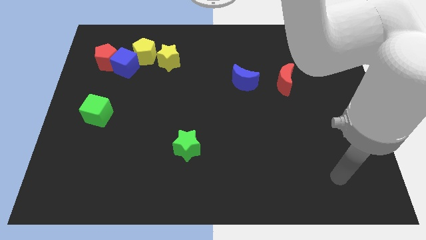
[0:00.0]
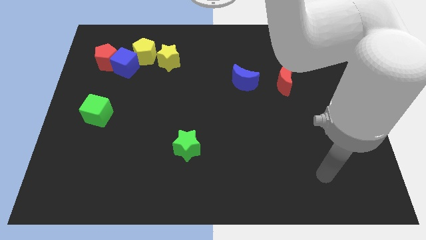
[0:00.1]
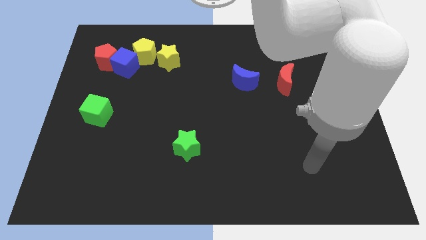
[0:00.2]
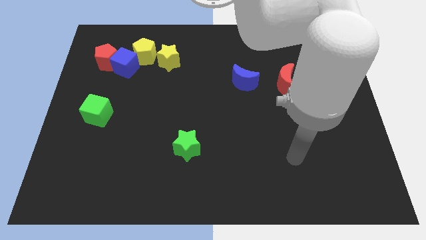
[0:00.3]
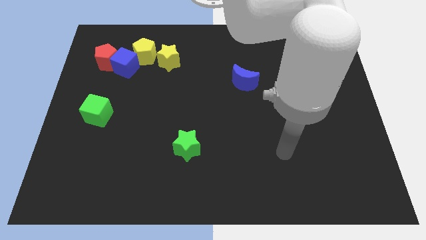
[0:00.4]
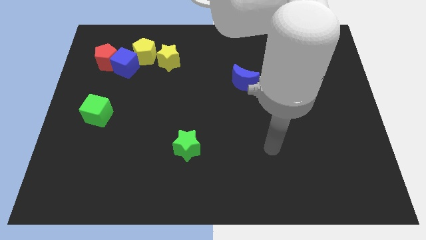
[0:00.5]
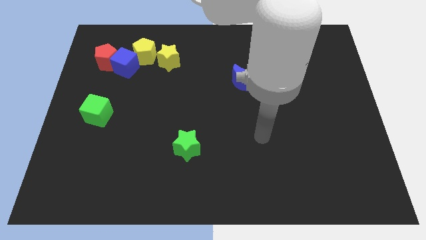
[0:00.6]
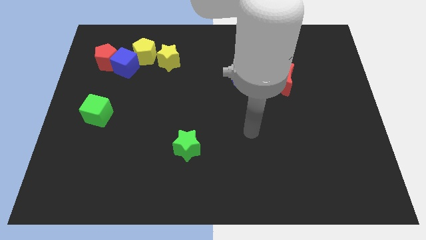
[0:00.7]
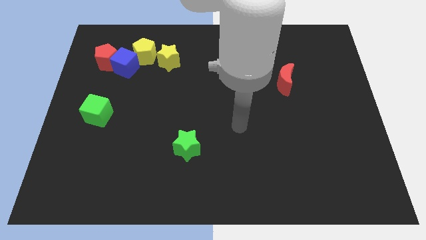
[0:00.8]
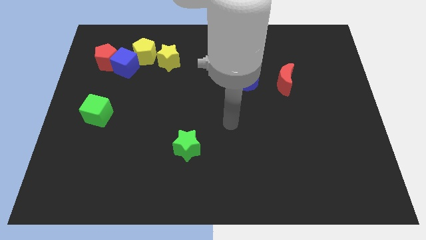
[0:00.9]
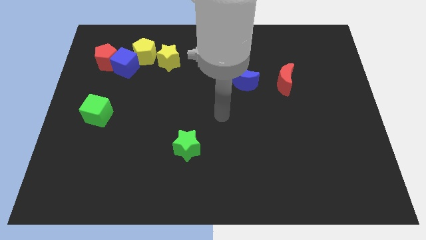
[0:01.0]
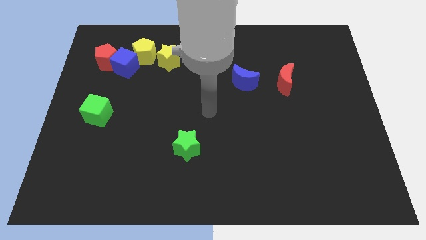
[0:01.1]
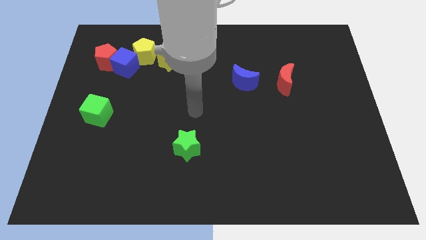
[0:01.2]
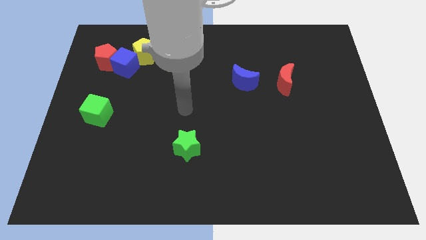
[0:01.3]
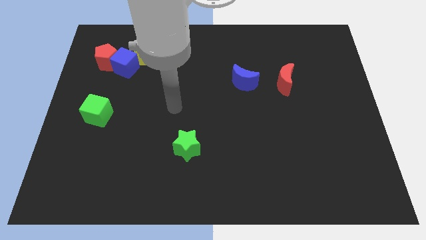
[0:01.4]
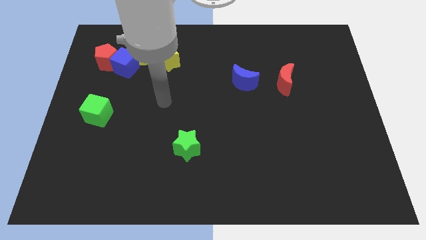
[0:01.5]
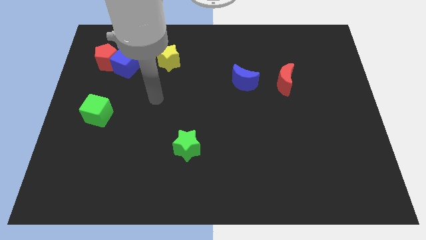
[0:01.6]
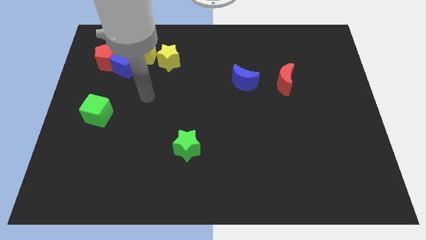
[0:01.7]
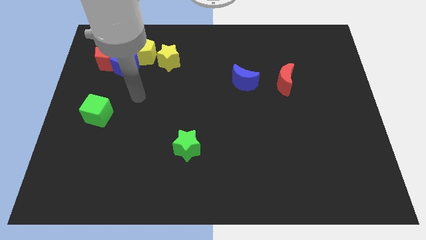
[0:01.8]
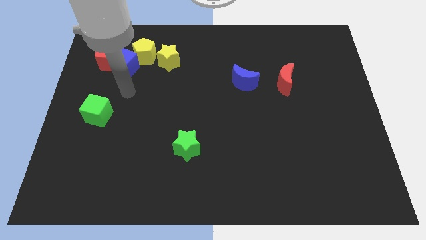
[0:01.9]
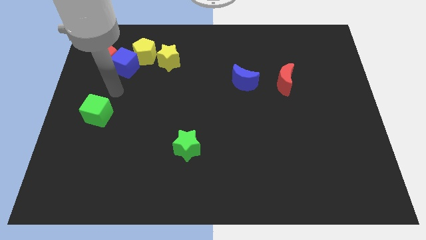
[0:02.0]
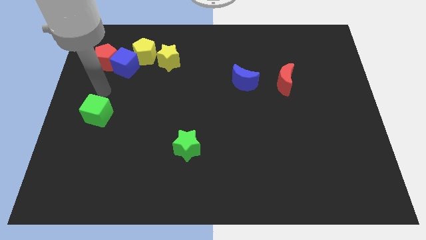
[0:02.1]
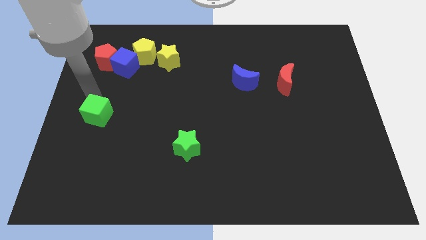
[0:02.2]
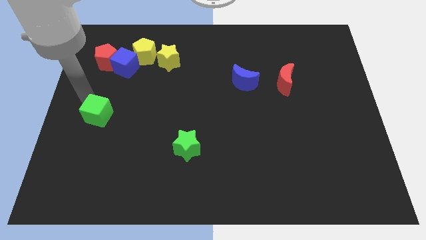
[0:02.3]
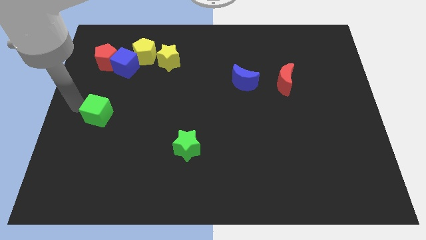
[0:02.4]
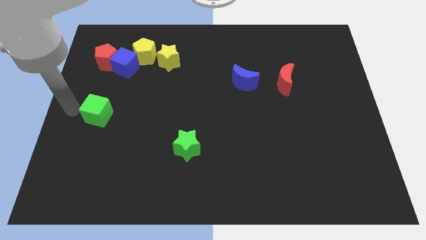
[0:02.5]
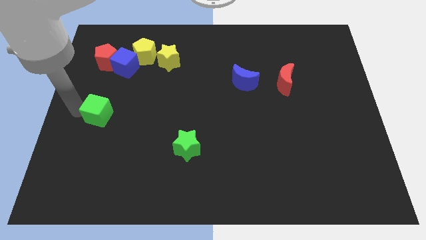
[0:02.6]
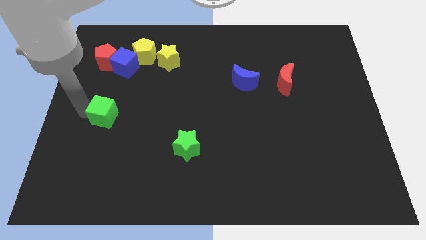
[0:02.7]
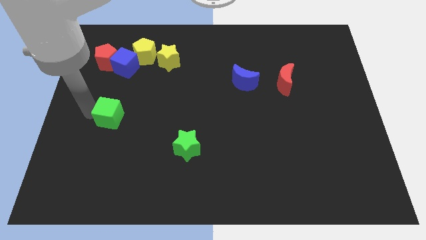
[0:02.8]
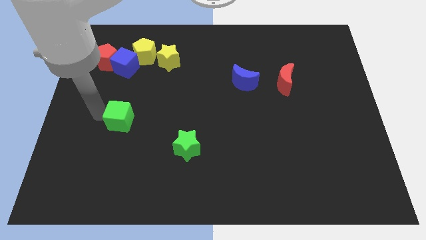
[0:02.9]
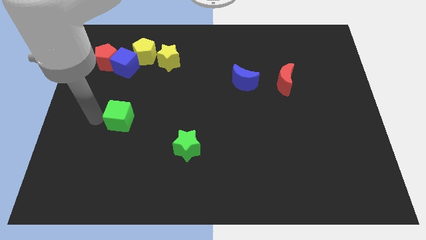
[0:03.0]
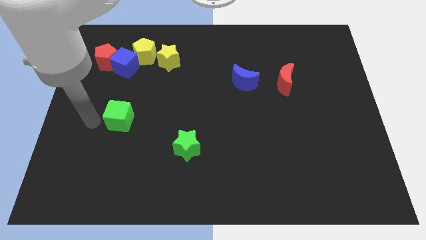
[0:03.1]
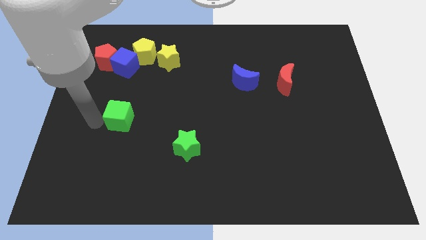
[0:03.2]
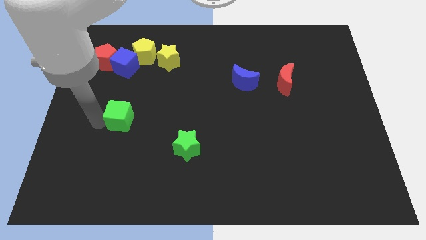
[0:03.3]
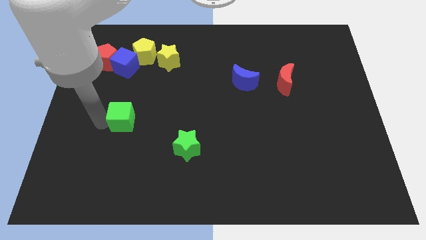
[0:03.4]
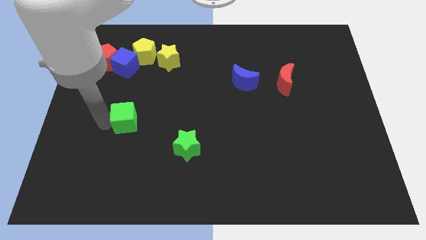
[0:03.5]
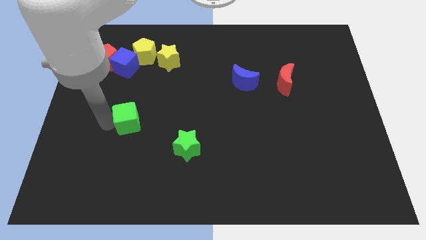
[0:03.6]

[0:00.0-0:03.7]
slide the green cube a little bit to the right

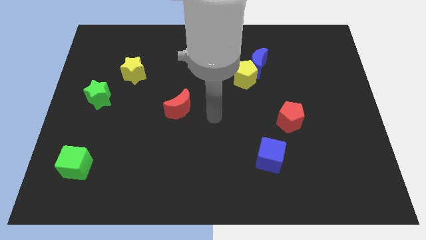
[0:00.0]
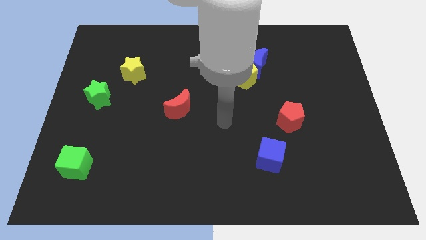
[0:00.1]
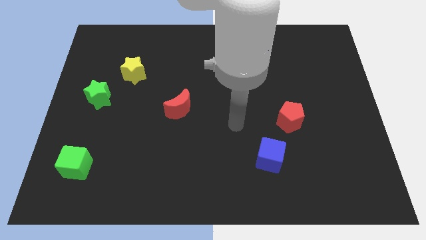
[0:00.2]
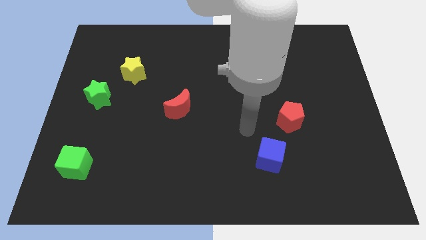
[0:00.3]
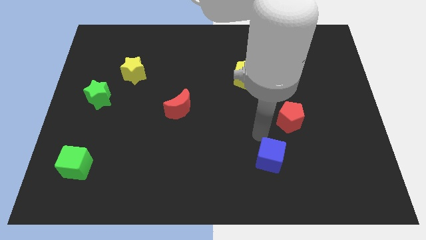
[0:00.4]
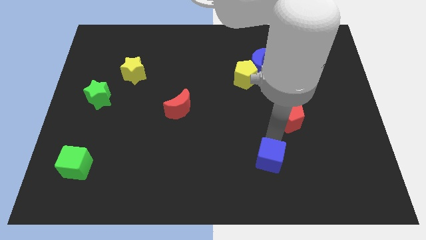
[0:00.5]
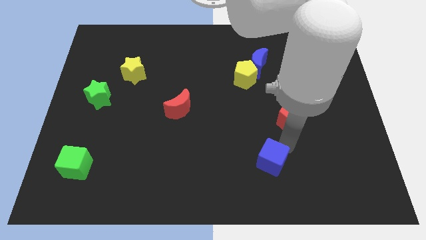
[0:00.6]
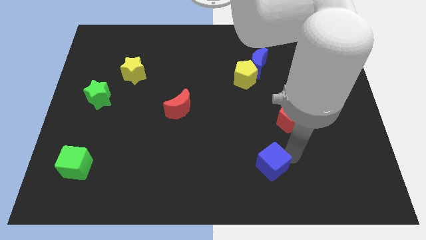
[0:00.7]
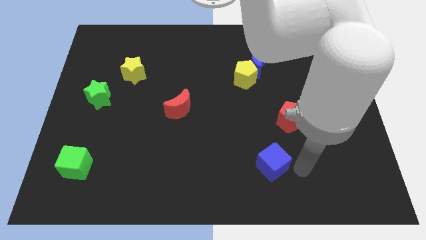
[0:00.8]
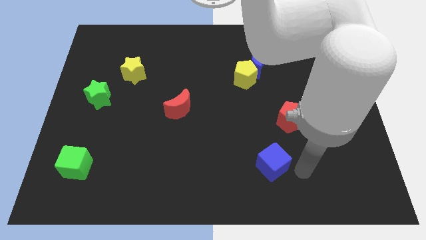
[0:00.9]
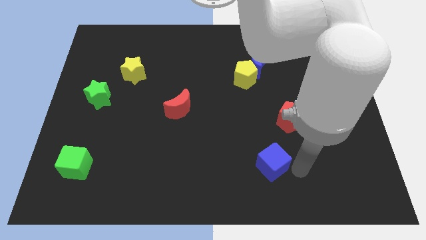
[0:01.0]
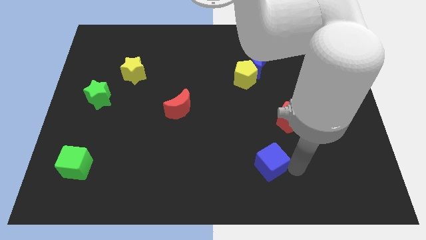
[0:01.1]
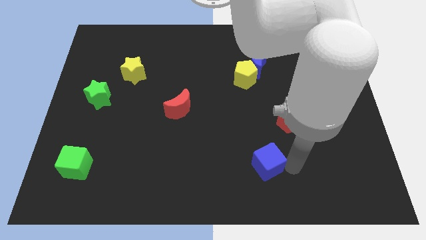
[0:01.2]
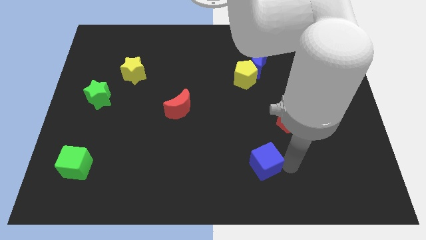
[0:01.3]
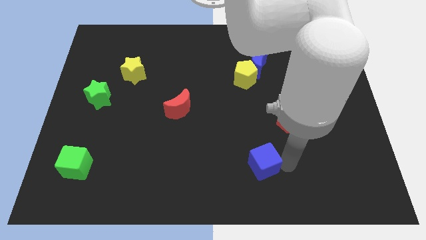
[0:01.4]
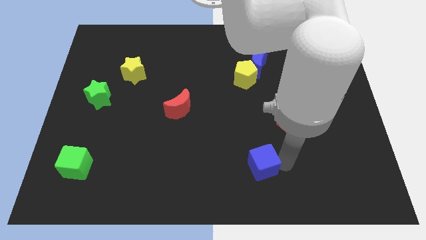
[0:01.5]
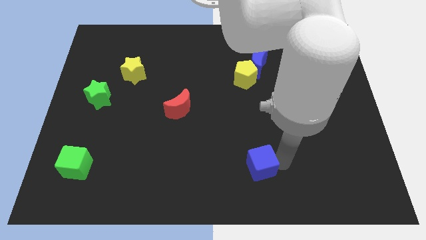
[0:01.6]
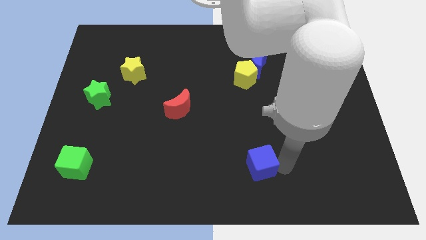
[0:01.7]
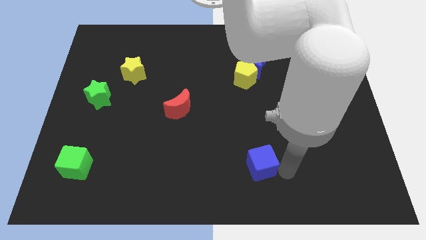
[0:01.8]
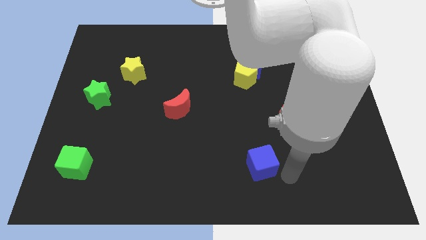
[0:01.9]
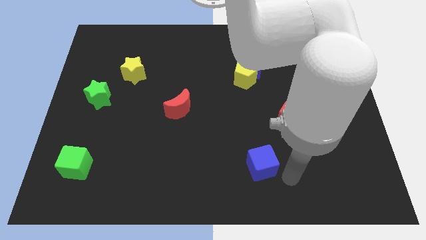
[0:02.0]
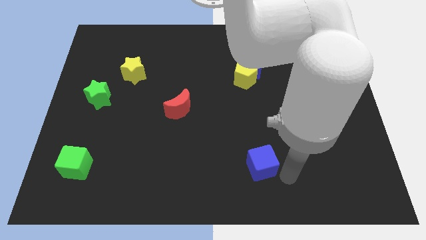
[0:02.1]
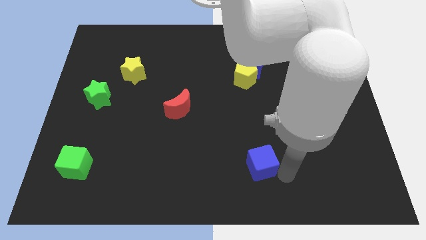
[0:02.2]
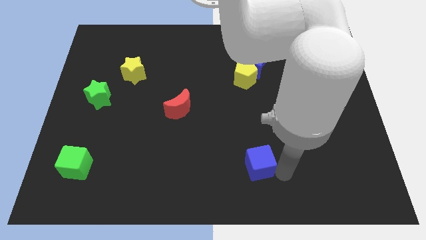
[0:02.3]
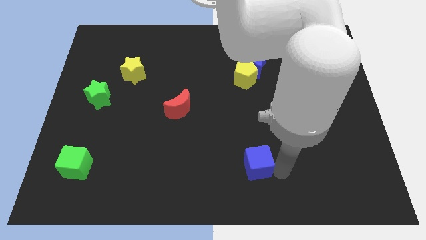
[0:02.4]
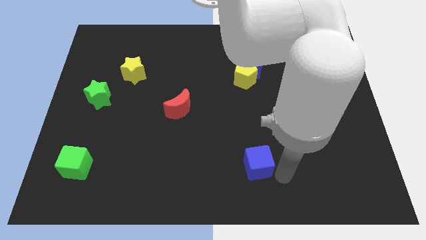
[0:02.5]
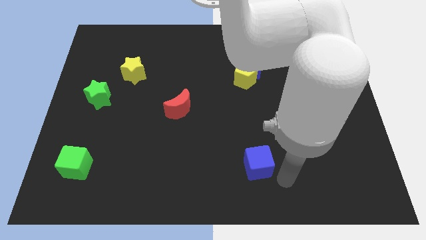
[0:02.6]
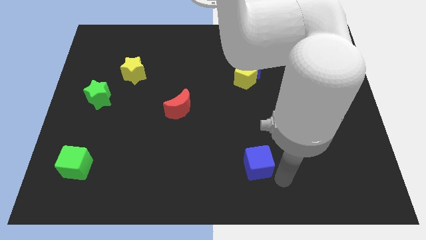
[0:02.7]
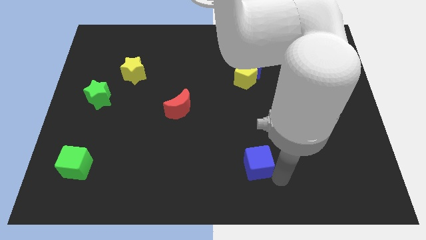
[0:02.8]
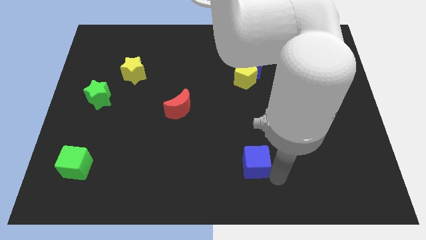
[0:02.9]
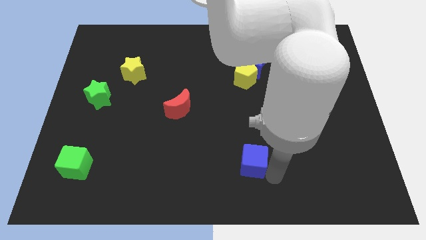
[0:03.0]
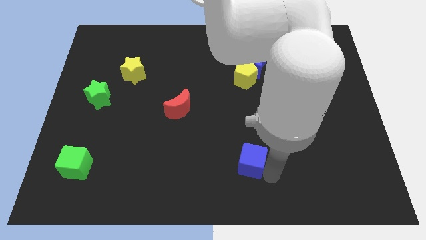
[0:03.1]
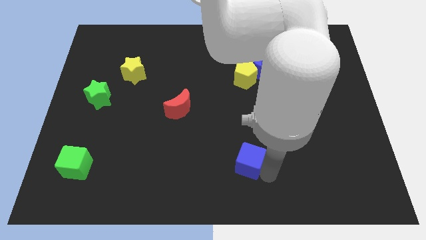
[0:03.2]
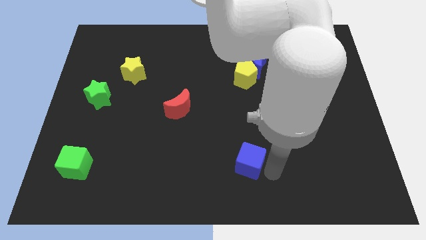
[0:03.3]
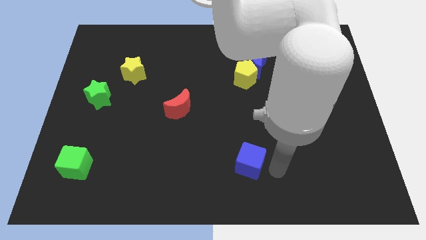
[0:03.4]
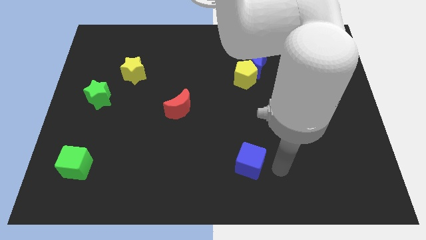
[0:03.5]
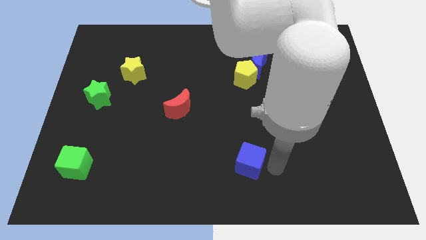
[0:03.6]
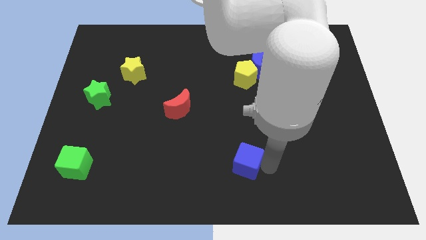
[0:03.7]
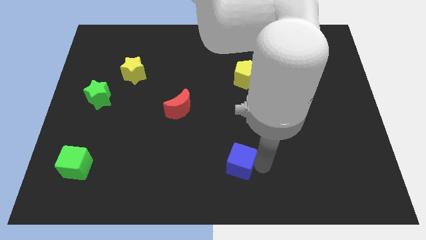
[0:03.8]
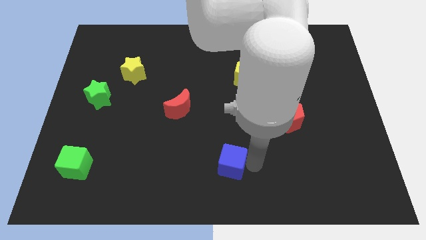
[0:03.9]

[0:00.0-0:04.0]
slightly push the blue cube to the left

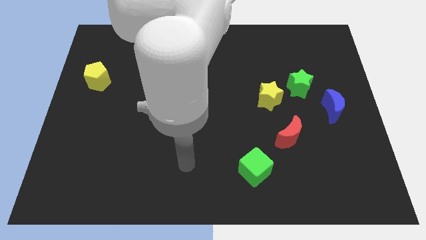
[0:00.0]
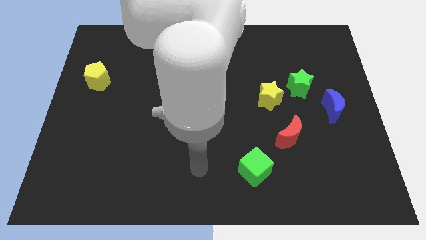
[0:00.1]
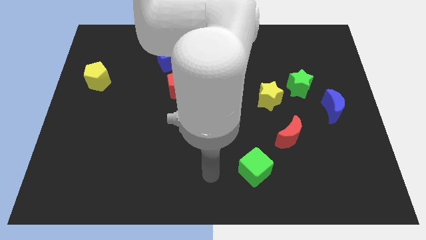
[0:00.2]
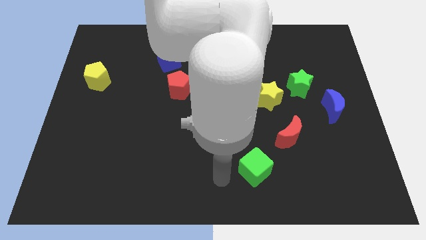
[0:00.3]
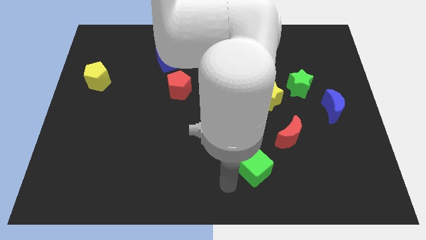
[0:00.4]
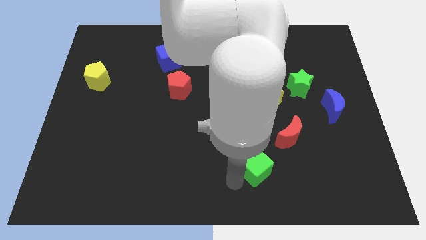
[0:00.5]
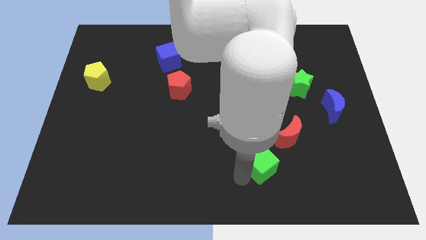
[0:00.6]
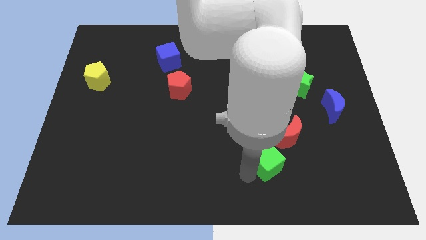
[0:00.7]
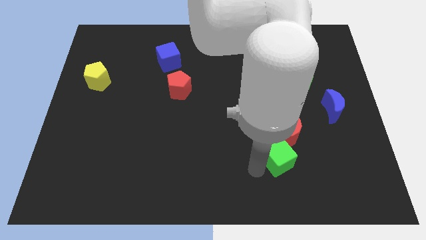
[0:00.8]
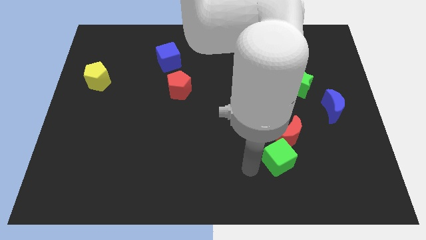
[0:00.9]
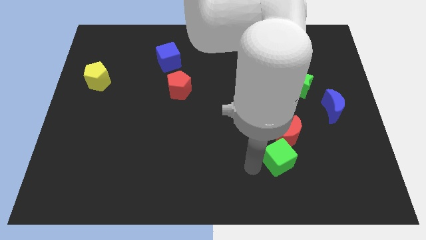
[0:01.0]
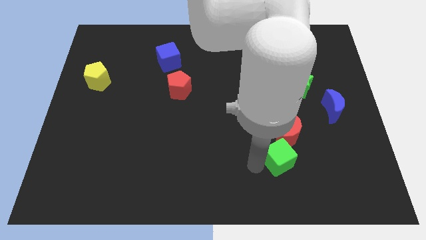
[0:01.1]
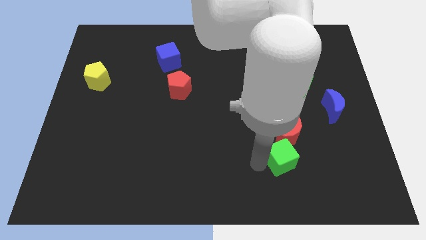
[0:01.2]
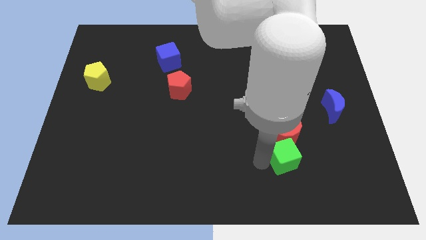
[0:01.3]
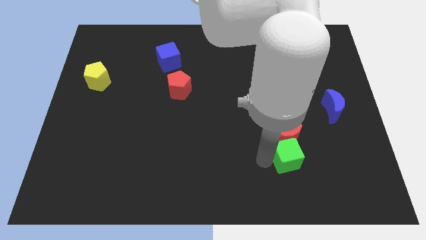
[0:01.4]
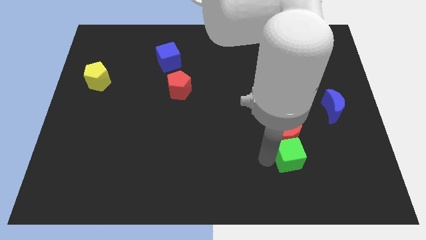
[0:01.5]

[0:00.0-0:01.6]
move the green cube upwards and then right slightly
